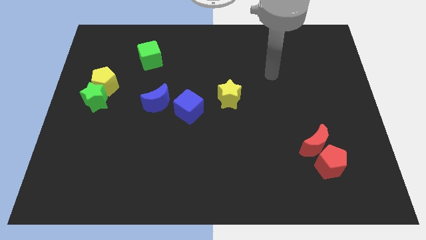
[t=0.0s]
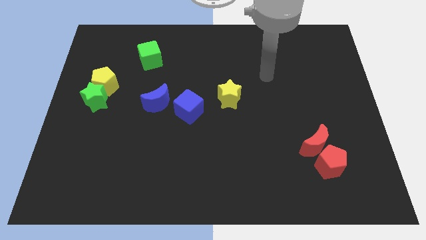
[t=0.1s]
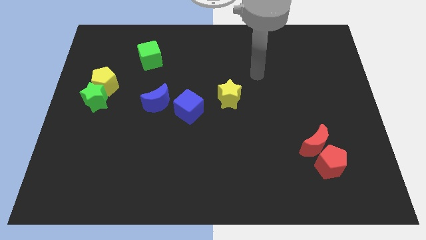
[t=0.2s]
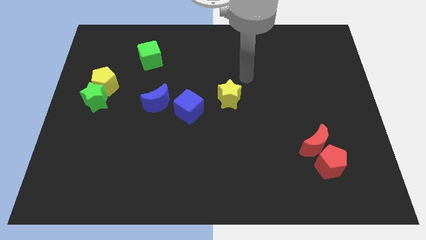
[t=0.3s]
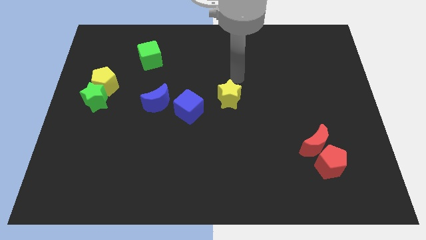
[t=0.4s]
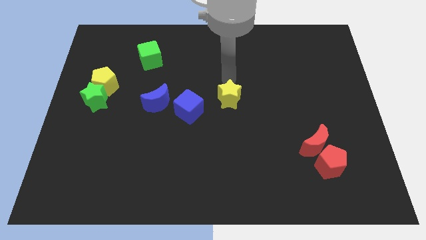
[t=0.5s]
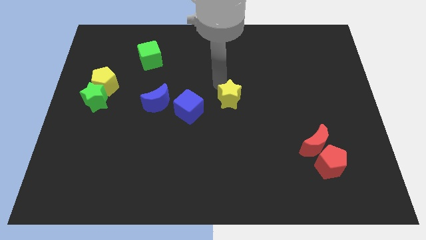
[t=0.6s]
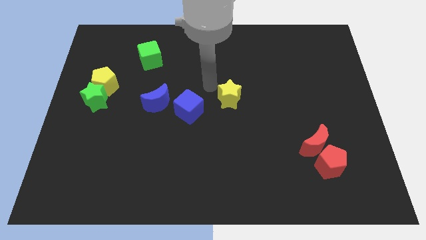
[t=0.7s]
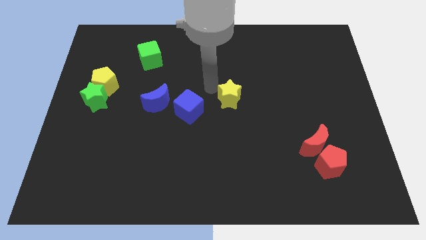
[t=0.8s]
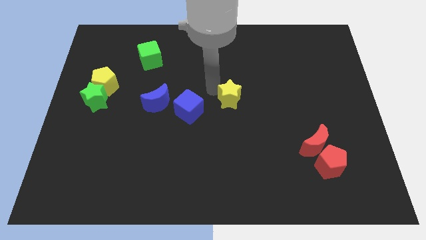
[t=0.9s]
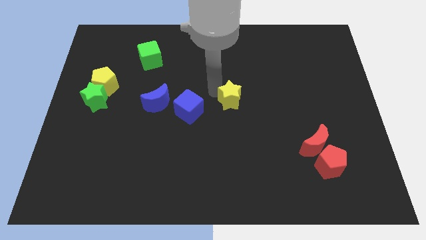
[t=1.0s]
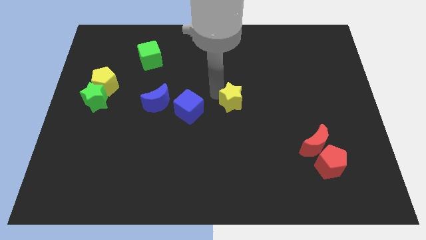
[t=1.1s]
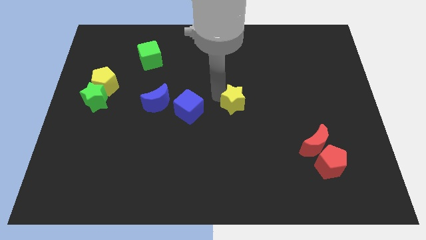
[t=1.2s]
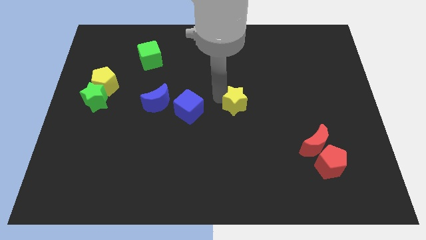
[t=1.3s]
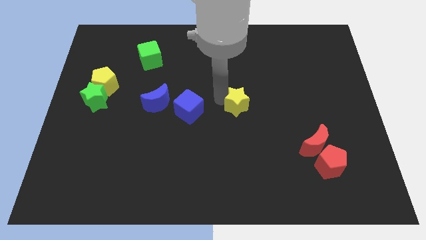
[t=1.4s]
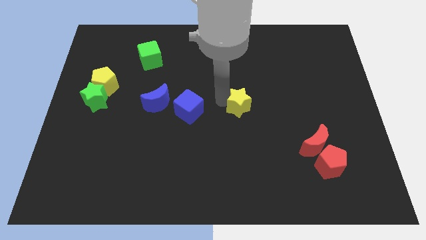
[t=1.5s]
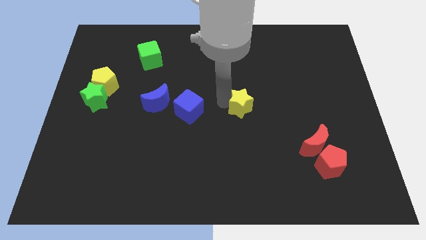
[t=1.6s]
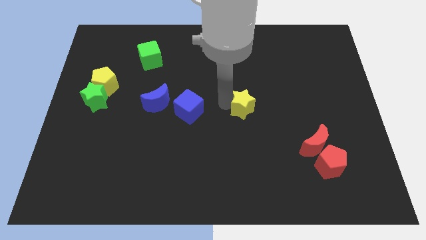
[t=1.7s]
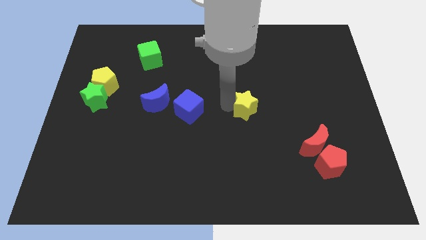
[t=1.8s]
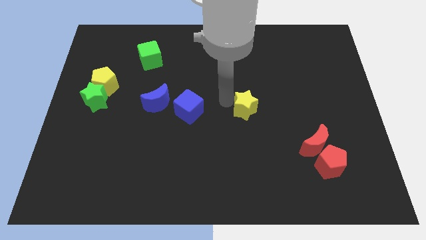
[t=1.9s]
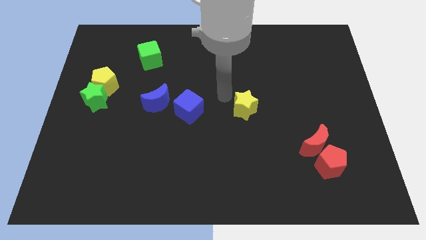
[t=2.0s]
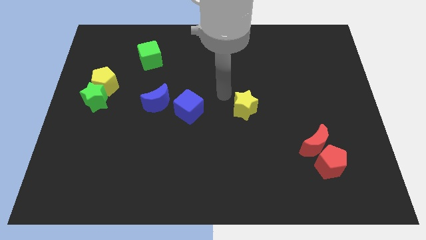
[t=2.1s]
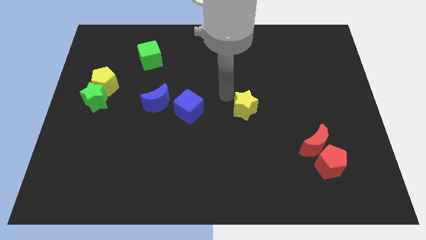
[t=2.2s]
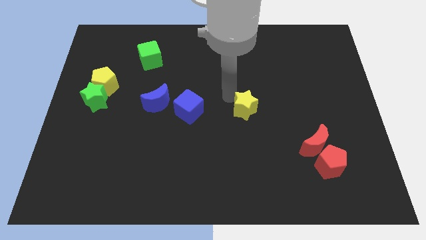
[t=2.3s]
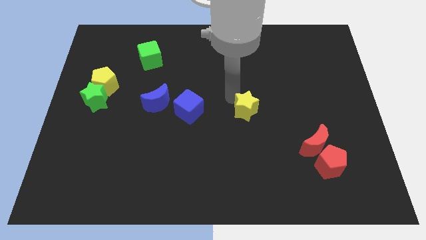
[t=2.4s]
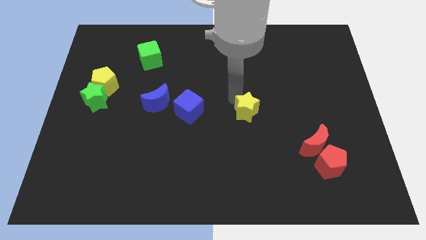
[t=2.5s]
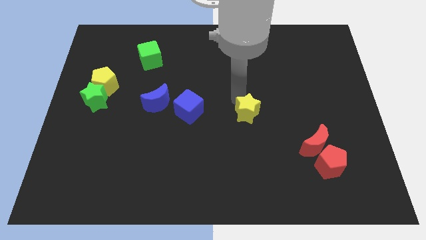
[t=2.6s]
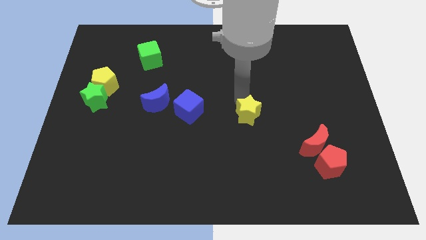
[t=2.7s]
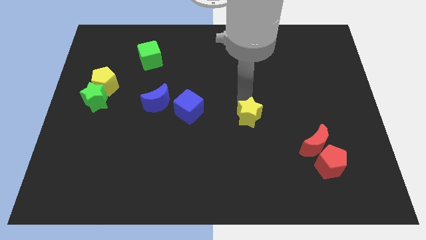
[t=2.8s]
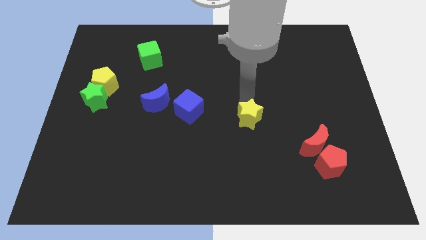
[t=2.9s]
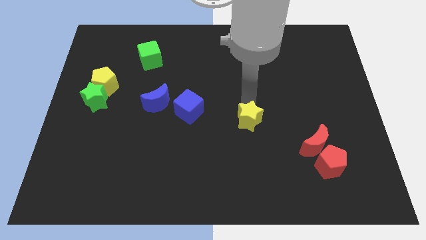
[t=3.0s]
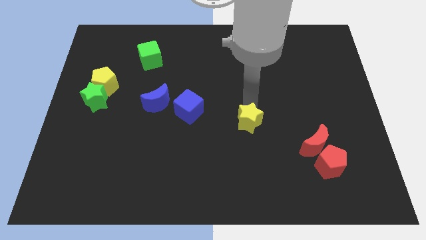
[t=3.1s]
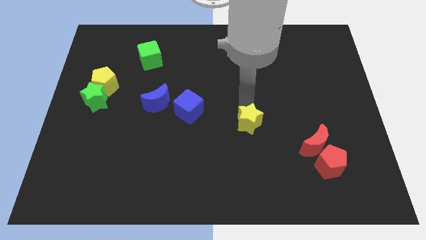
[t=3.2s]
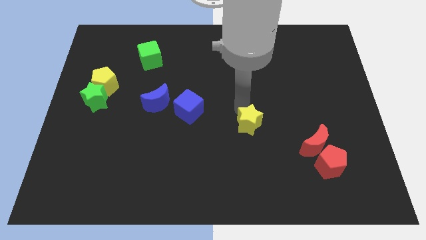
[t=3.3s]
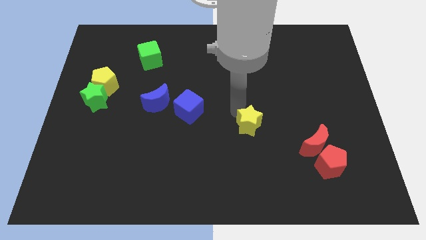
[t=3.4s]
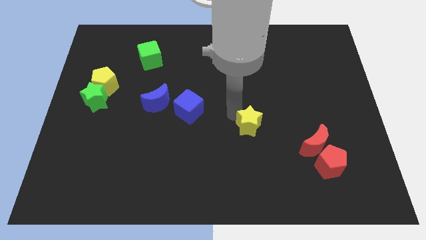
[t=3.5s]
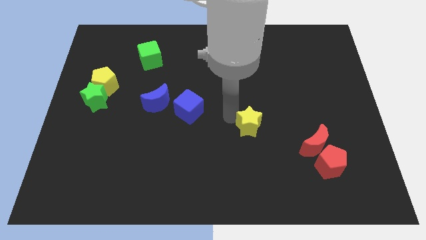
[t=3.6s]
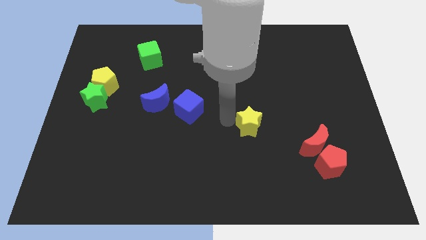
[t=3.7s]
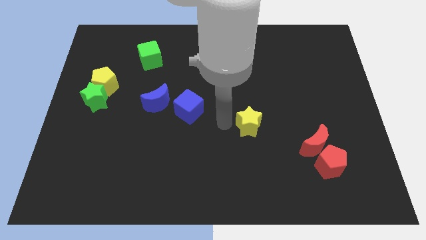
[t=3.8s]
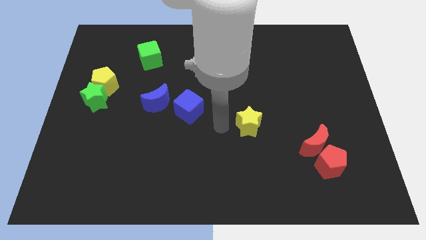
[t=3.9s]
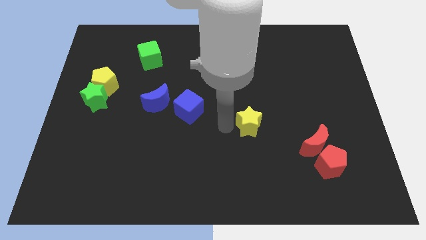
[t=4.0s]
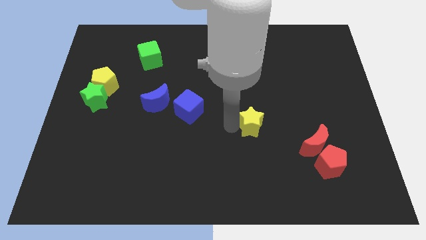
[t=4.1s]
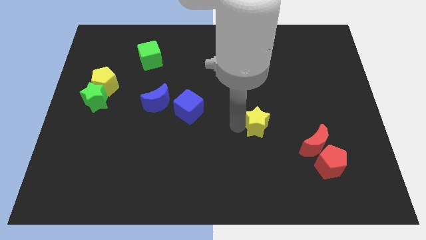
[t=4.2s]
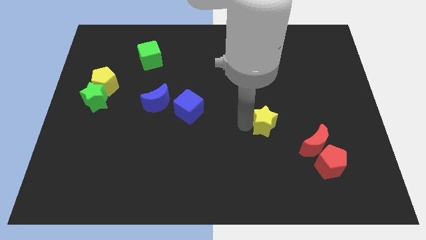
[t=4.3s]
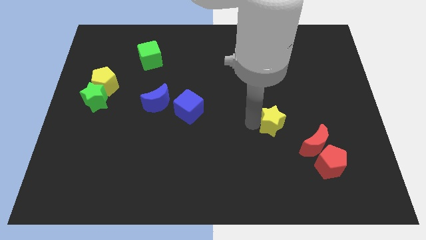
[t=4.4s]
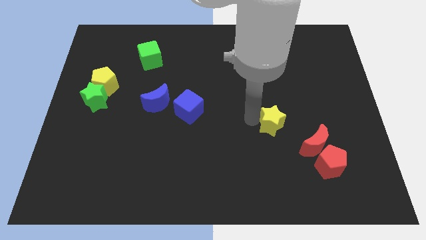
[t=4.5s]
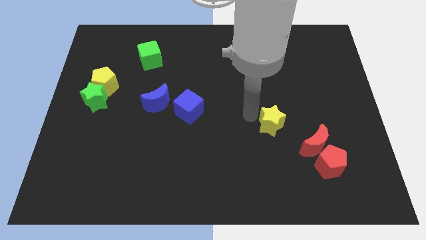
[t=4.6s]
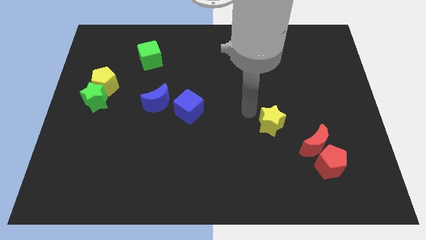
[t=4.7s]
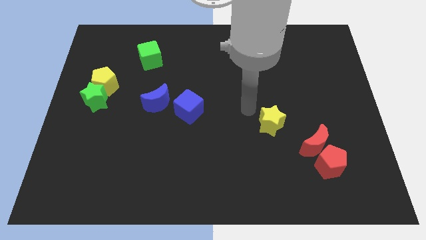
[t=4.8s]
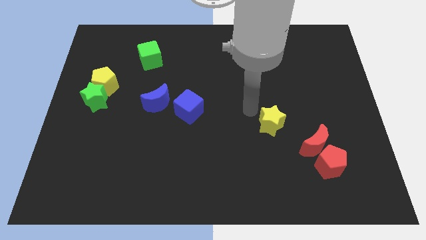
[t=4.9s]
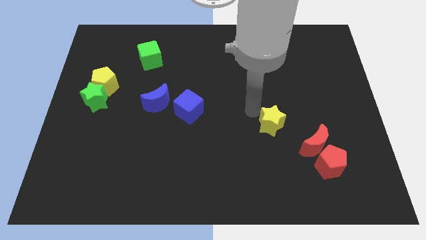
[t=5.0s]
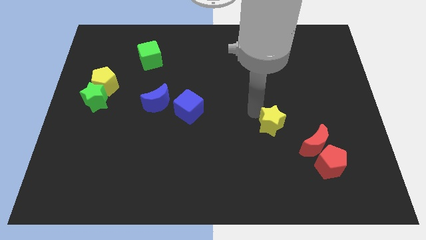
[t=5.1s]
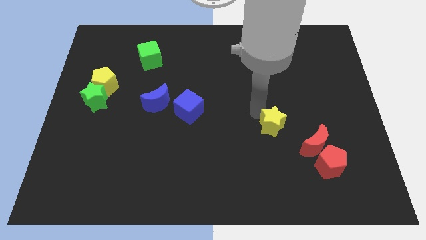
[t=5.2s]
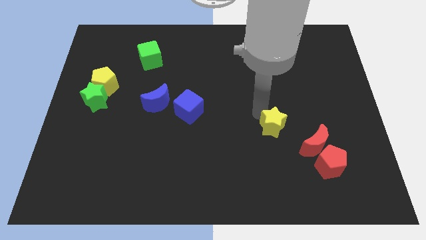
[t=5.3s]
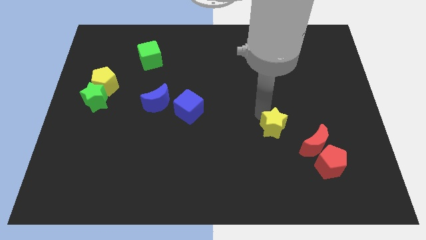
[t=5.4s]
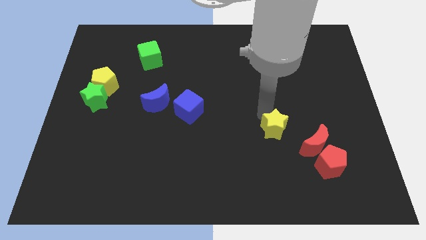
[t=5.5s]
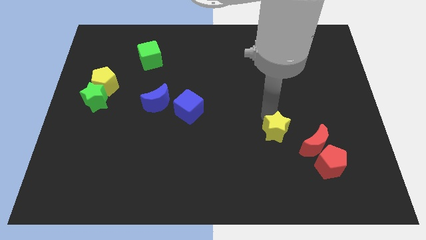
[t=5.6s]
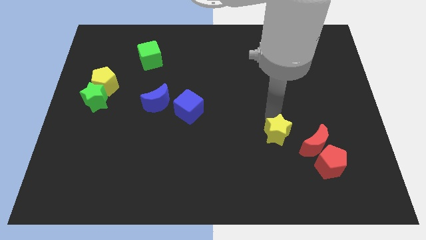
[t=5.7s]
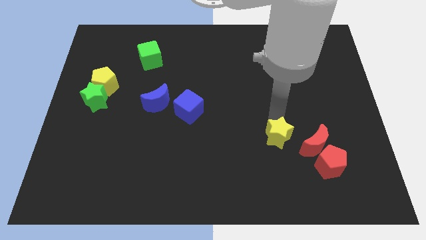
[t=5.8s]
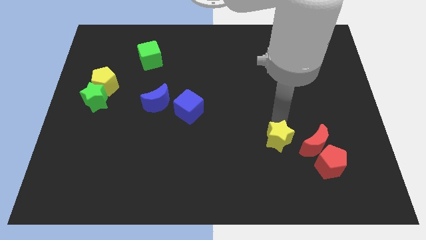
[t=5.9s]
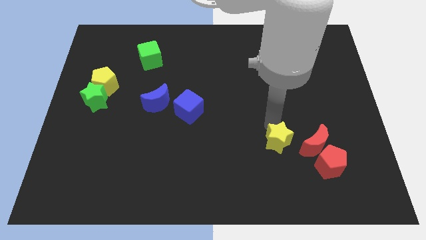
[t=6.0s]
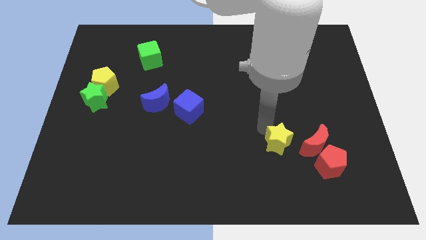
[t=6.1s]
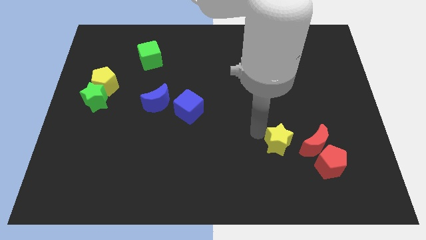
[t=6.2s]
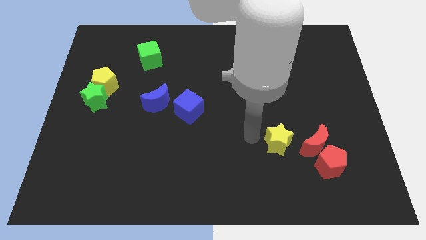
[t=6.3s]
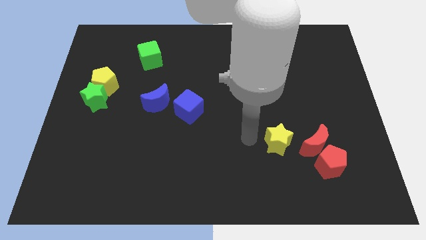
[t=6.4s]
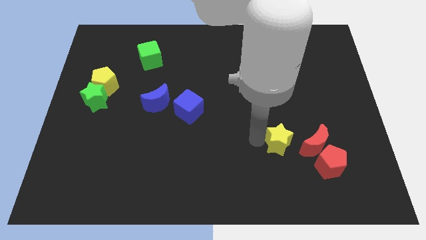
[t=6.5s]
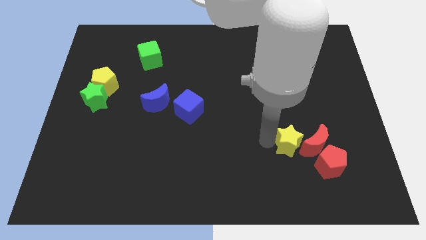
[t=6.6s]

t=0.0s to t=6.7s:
move the yellow star close to the red moon

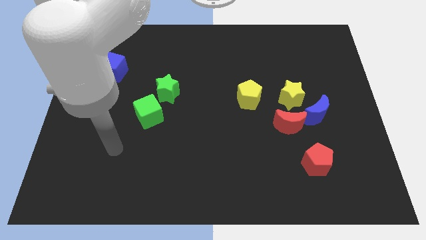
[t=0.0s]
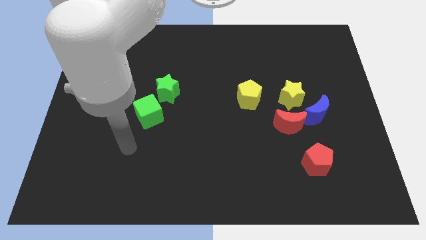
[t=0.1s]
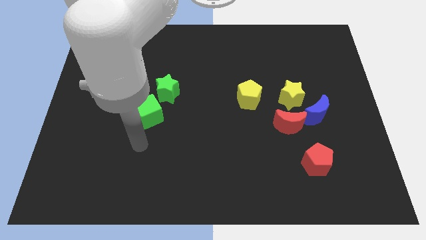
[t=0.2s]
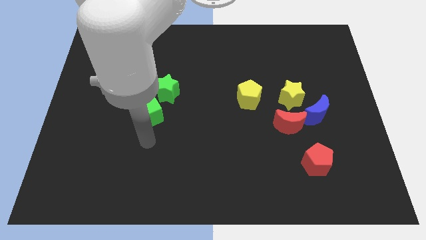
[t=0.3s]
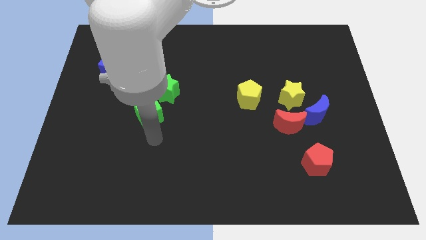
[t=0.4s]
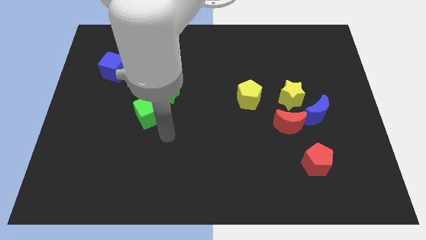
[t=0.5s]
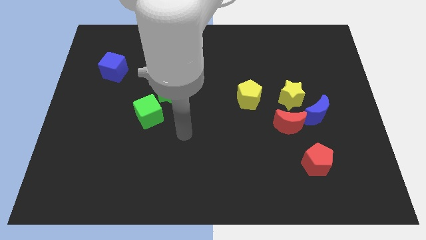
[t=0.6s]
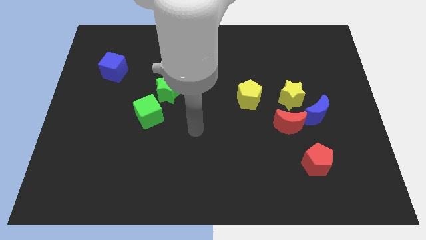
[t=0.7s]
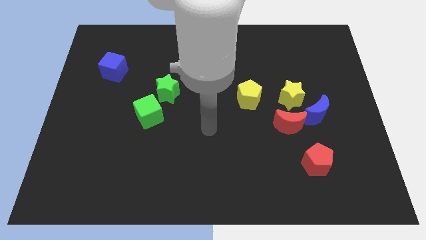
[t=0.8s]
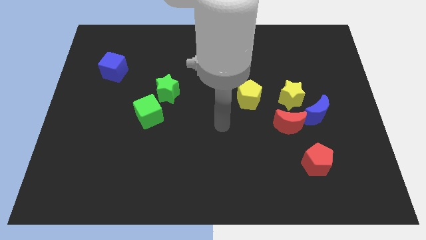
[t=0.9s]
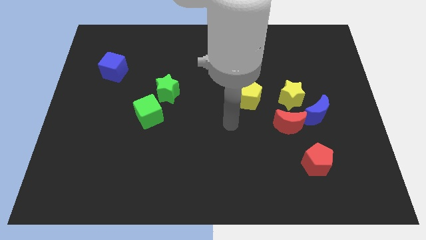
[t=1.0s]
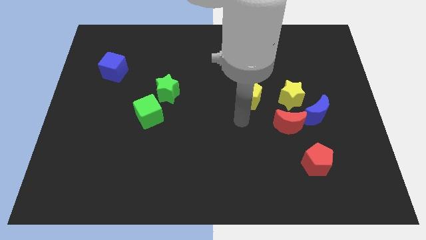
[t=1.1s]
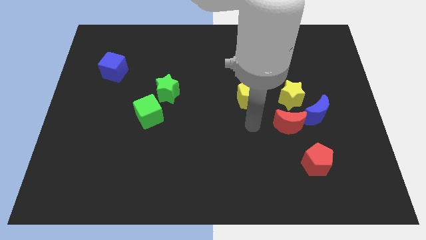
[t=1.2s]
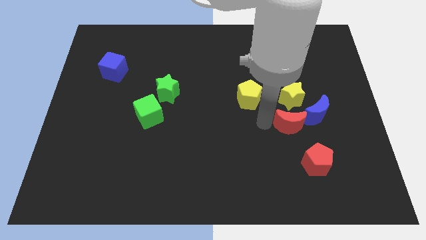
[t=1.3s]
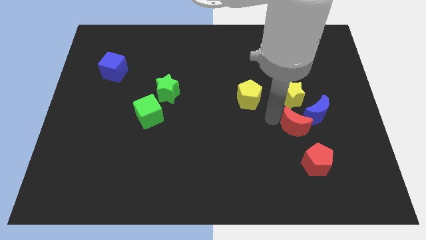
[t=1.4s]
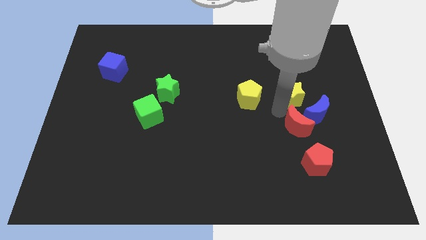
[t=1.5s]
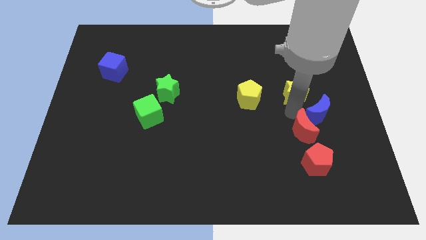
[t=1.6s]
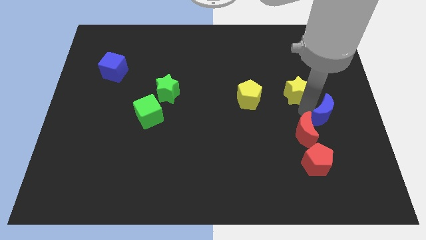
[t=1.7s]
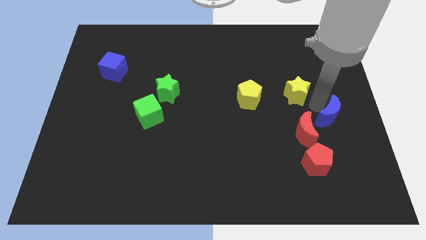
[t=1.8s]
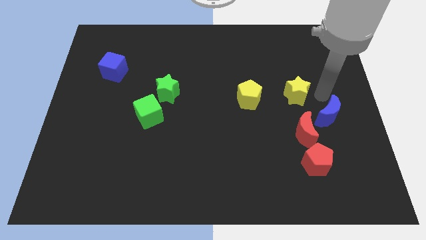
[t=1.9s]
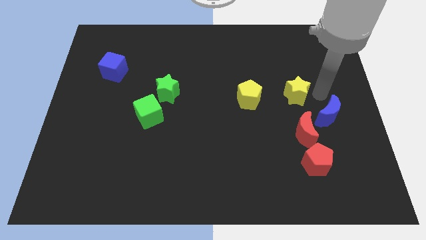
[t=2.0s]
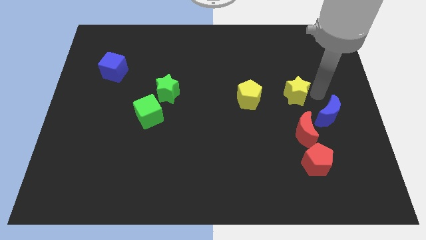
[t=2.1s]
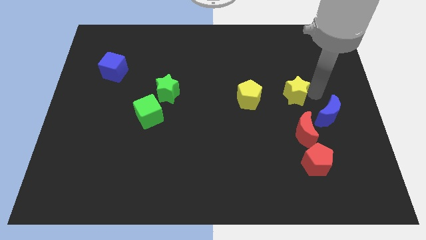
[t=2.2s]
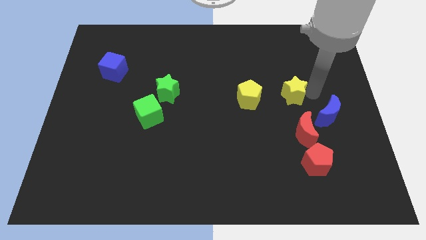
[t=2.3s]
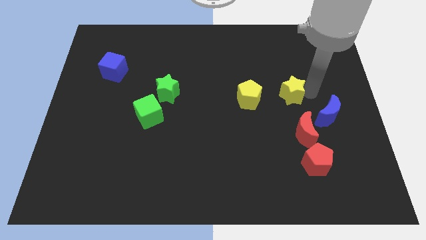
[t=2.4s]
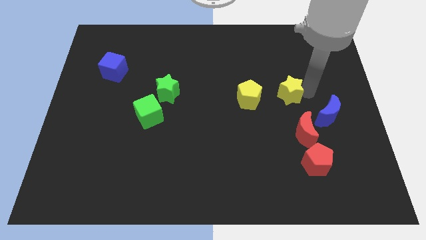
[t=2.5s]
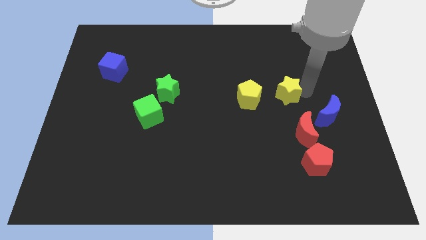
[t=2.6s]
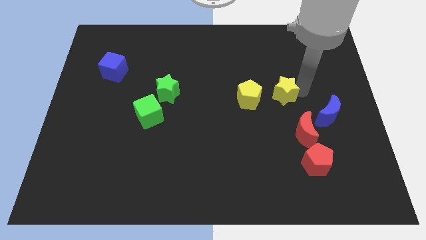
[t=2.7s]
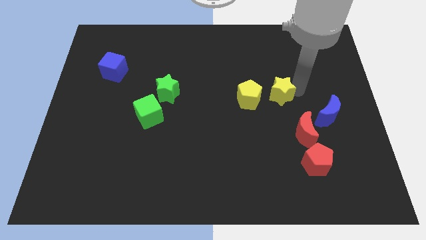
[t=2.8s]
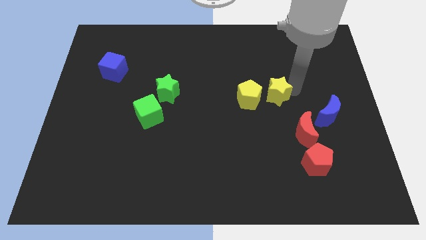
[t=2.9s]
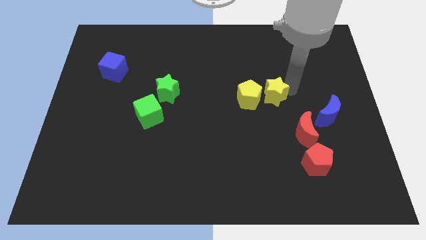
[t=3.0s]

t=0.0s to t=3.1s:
move the yellow star to the yellow pentagon
